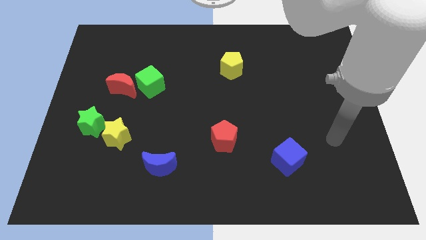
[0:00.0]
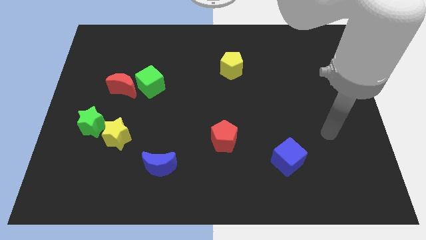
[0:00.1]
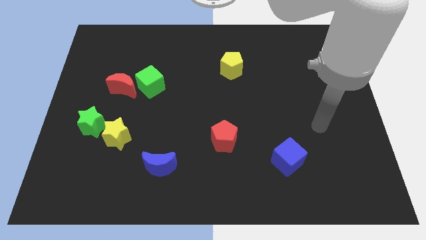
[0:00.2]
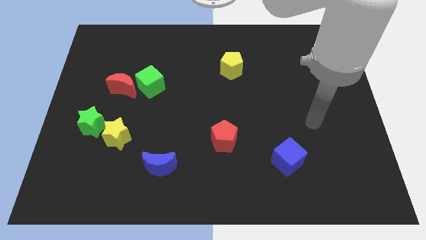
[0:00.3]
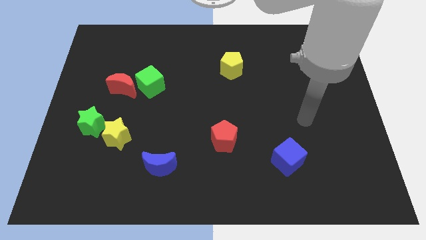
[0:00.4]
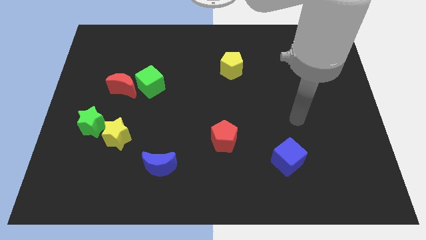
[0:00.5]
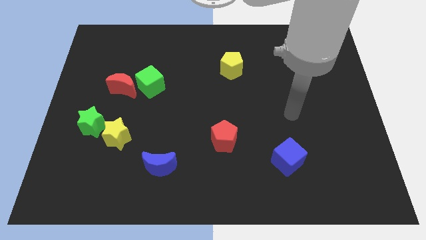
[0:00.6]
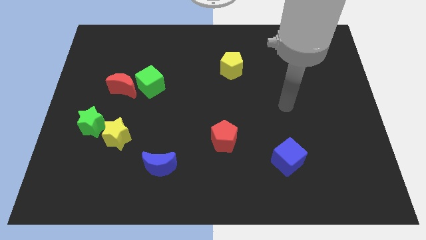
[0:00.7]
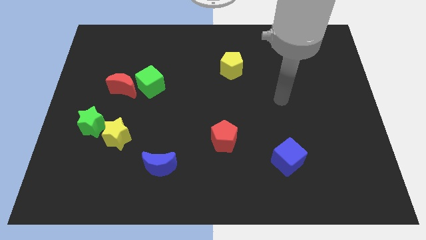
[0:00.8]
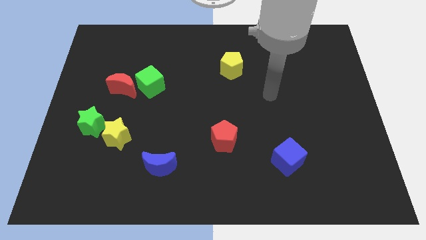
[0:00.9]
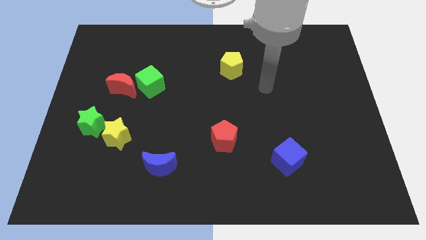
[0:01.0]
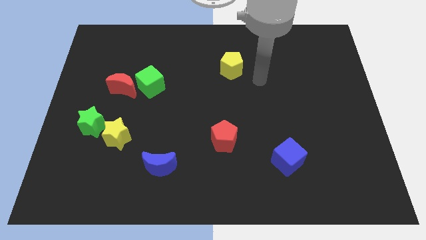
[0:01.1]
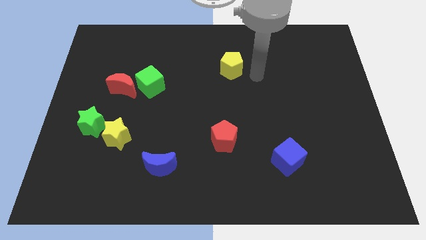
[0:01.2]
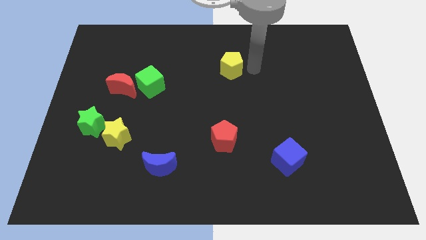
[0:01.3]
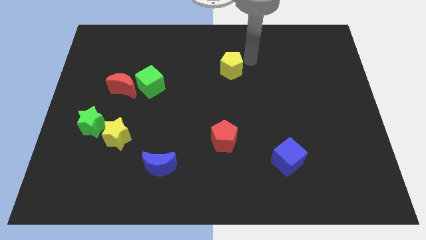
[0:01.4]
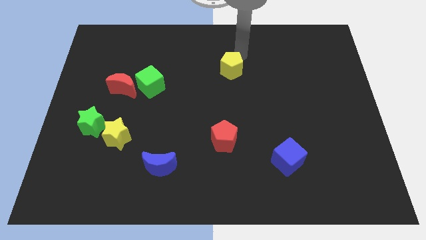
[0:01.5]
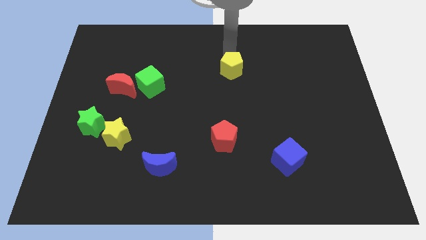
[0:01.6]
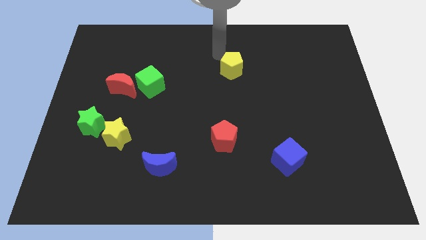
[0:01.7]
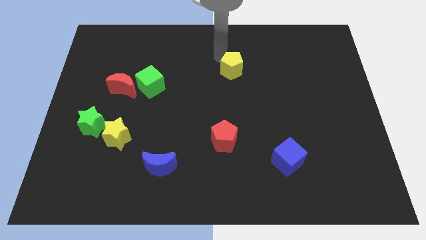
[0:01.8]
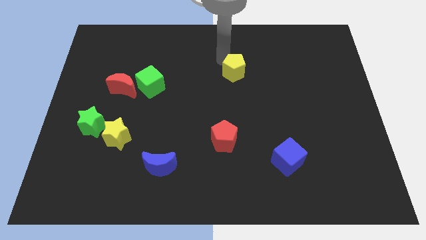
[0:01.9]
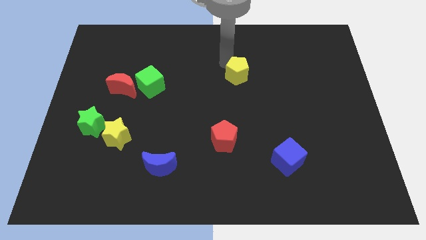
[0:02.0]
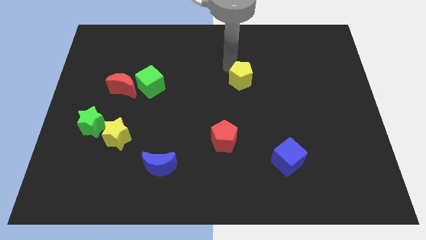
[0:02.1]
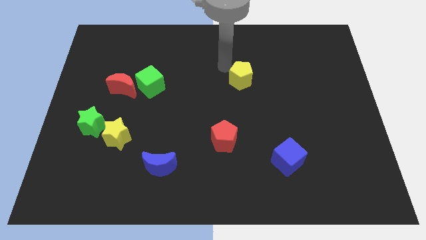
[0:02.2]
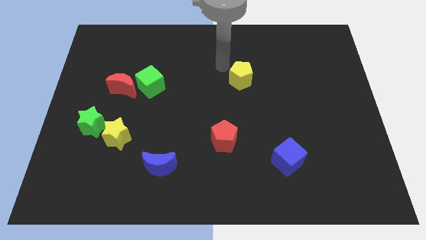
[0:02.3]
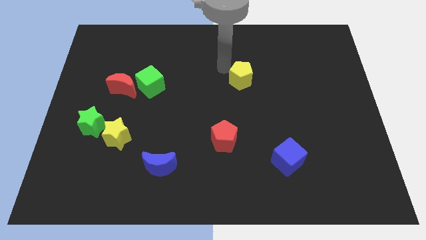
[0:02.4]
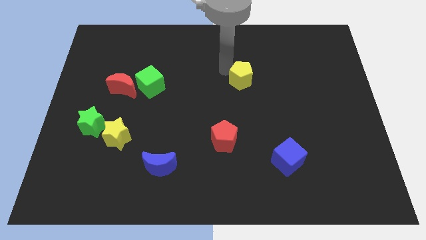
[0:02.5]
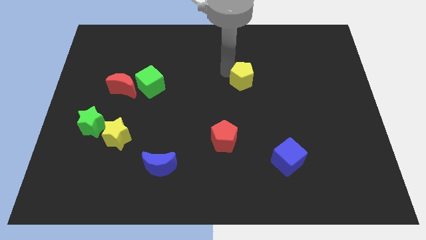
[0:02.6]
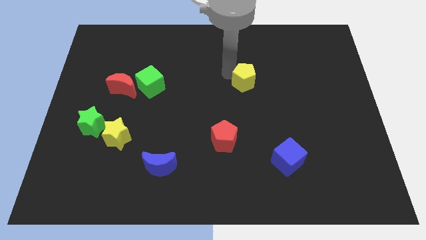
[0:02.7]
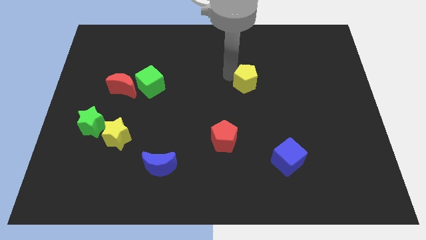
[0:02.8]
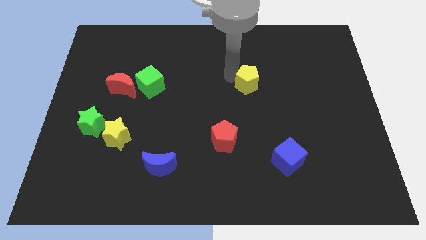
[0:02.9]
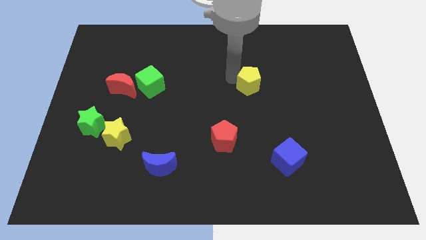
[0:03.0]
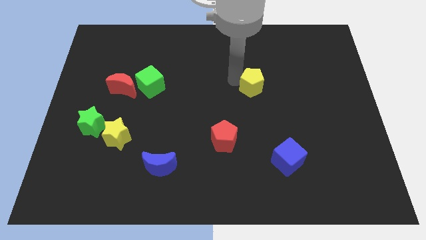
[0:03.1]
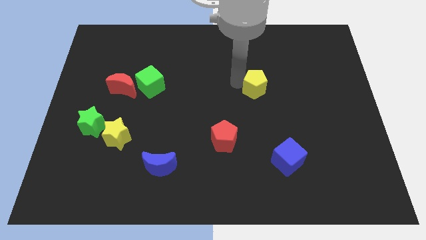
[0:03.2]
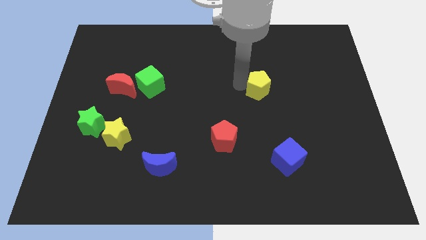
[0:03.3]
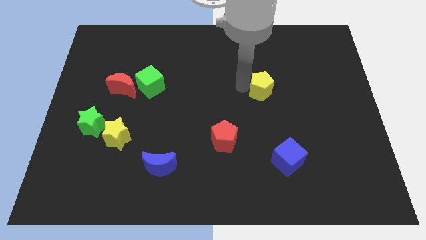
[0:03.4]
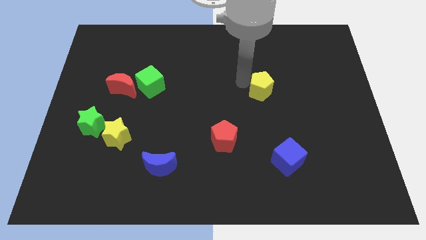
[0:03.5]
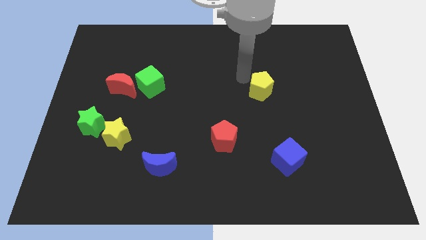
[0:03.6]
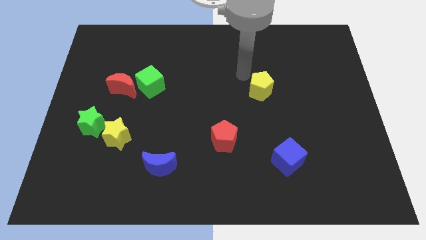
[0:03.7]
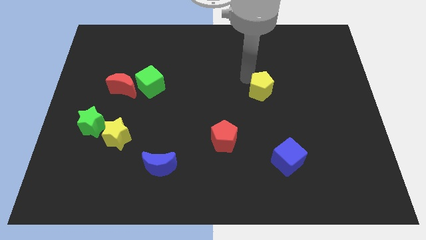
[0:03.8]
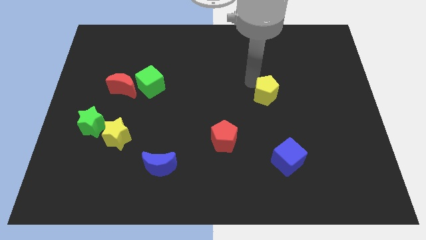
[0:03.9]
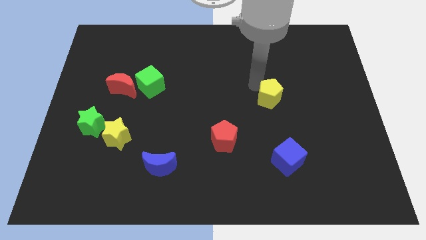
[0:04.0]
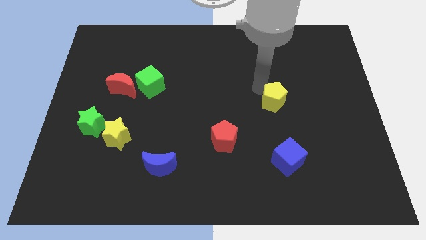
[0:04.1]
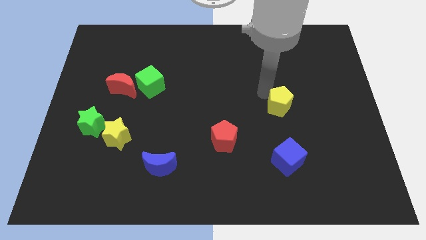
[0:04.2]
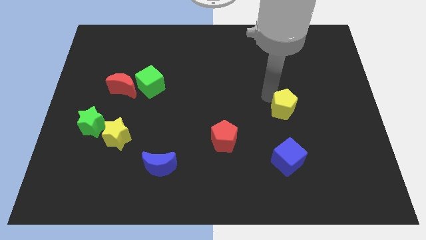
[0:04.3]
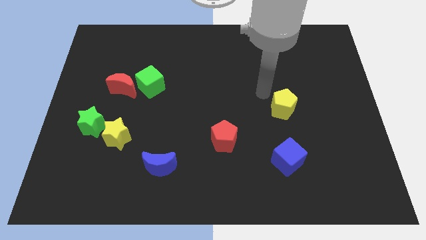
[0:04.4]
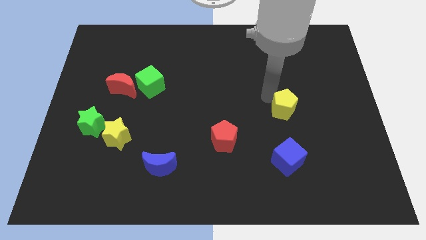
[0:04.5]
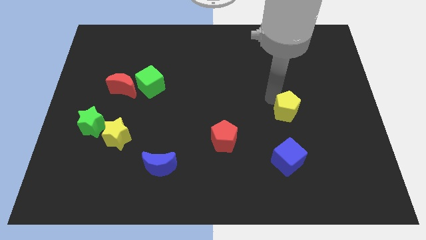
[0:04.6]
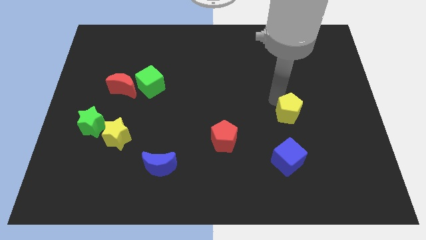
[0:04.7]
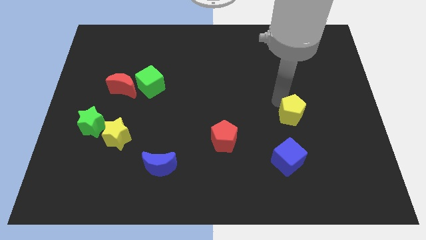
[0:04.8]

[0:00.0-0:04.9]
slide the yellow pentagon downwards and then to the right

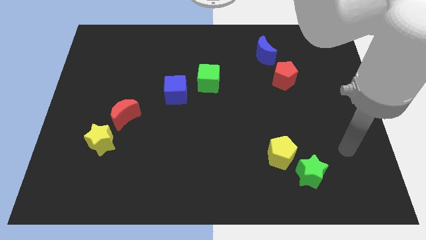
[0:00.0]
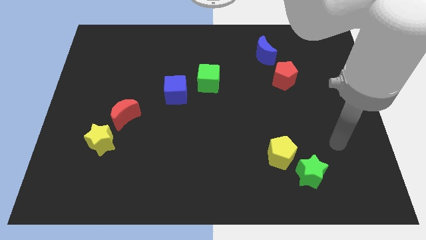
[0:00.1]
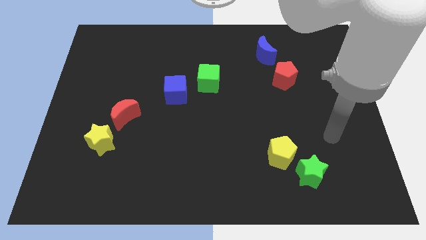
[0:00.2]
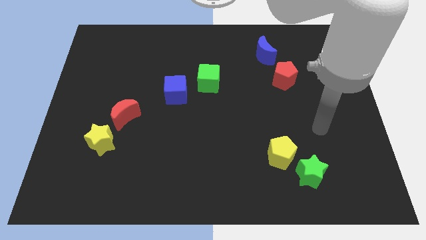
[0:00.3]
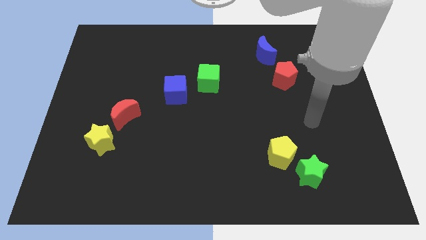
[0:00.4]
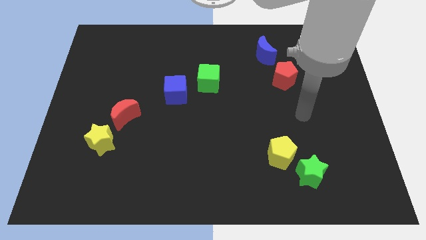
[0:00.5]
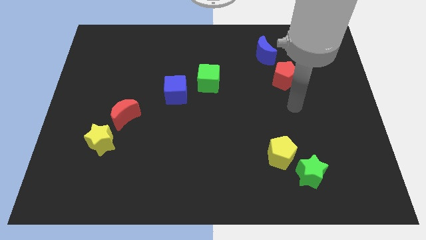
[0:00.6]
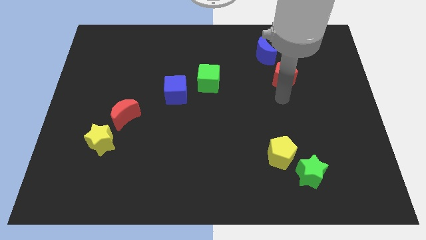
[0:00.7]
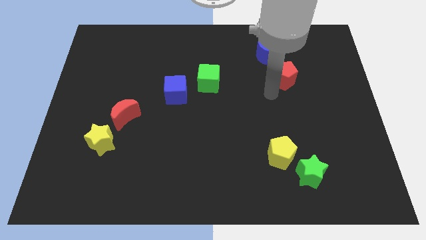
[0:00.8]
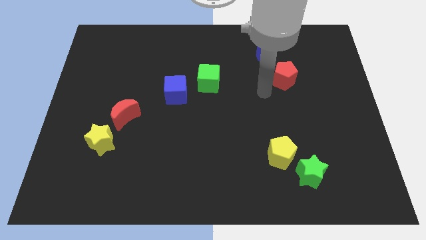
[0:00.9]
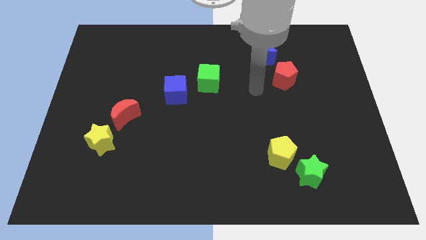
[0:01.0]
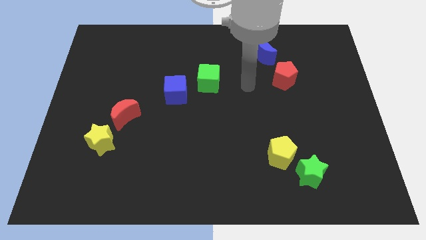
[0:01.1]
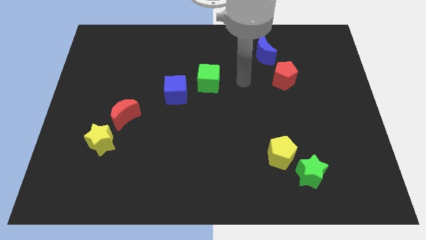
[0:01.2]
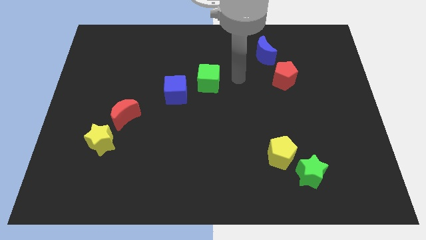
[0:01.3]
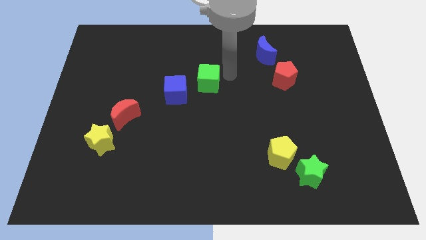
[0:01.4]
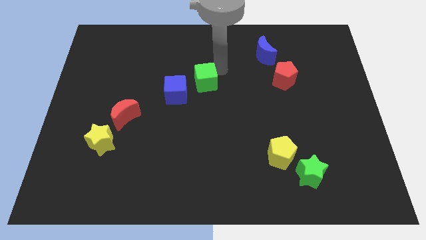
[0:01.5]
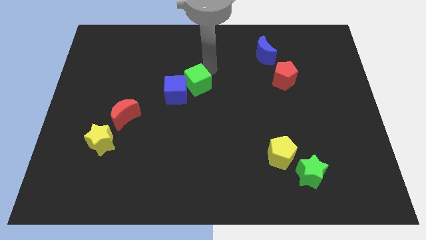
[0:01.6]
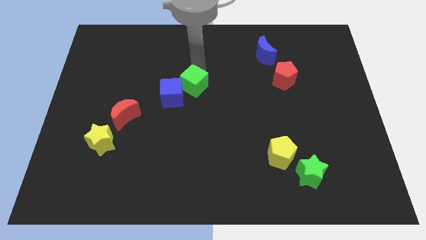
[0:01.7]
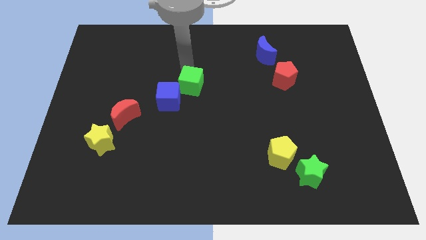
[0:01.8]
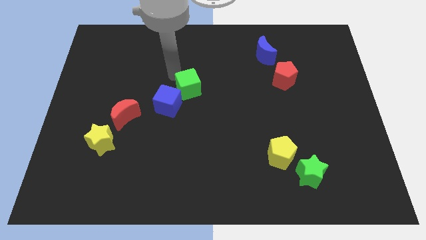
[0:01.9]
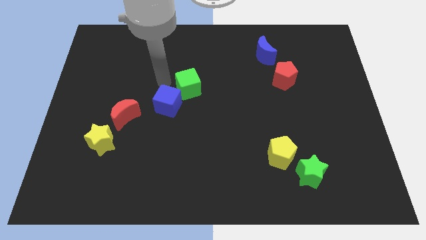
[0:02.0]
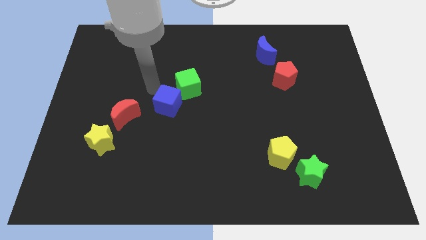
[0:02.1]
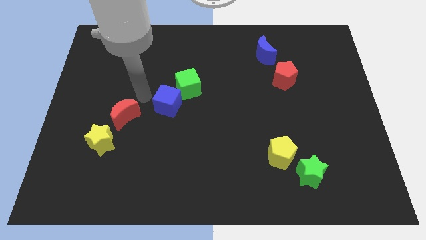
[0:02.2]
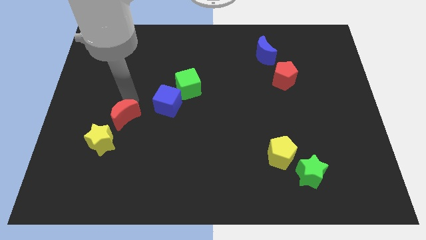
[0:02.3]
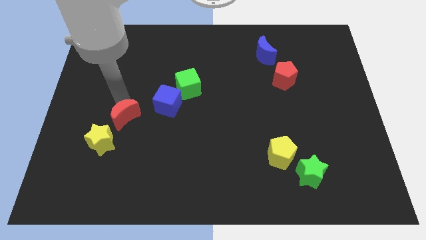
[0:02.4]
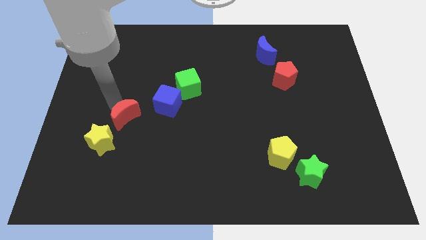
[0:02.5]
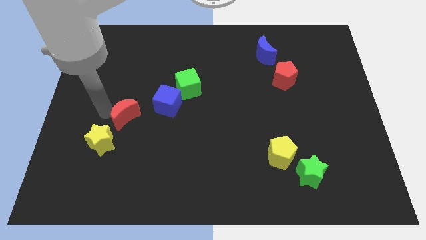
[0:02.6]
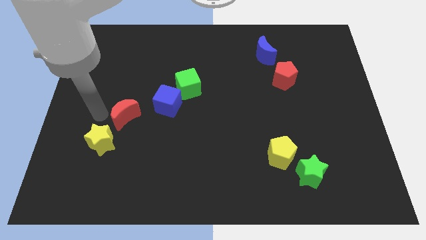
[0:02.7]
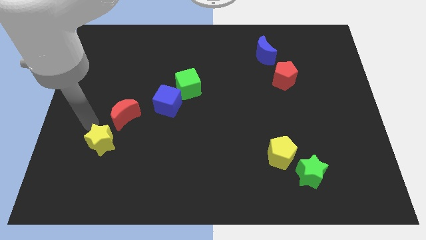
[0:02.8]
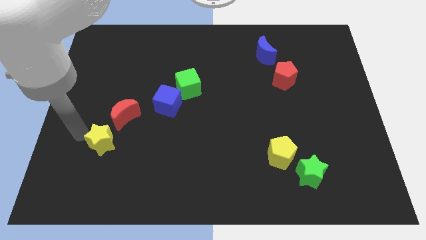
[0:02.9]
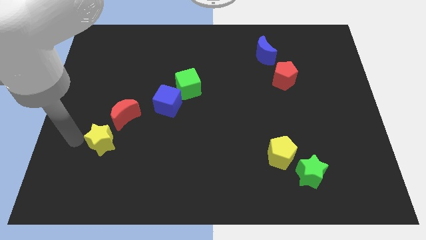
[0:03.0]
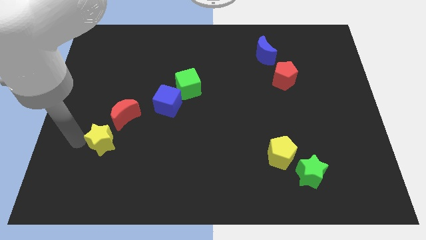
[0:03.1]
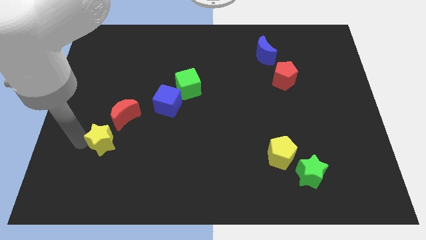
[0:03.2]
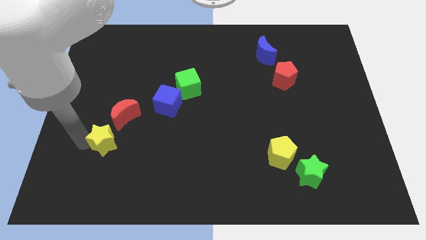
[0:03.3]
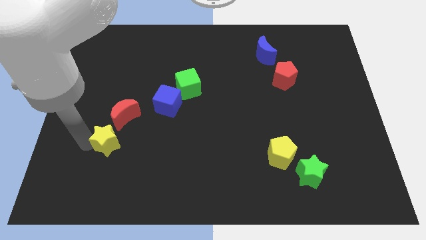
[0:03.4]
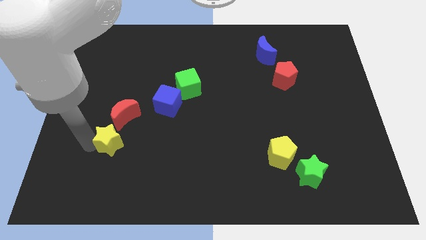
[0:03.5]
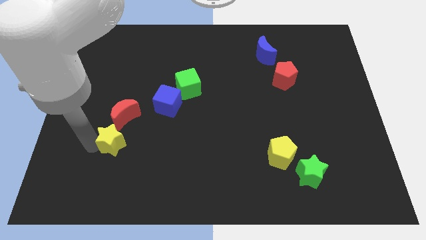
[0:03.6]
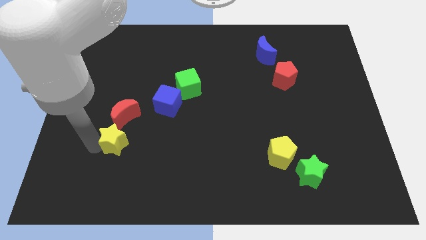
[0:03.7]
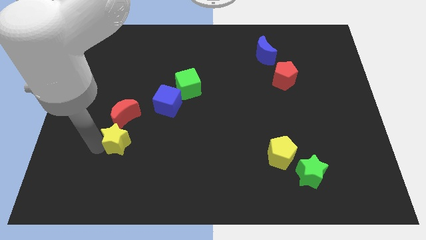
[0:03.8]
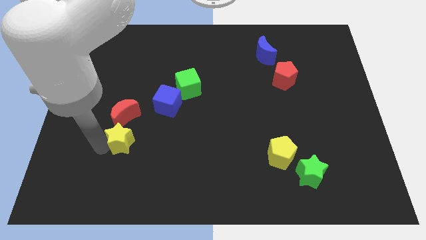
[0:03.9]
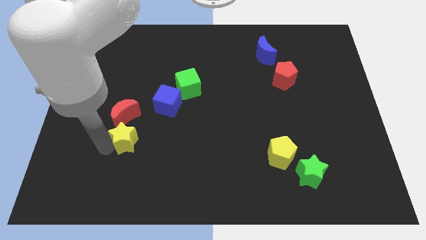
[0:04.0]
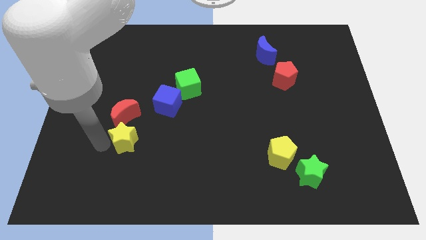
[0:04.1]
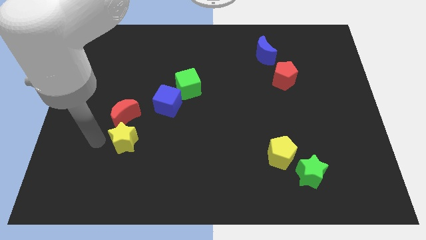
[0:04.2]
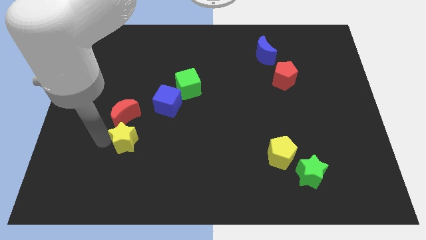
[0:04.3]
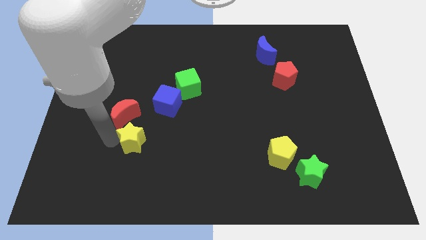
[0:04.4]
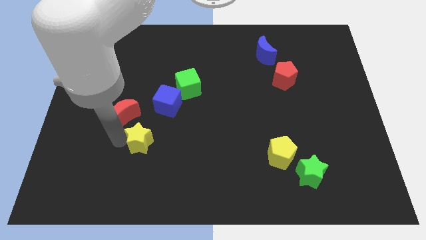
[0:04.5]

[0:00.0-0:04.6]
slightly slide the yellow star to the right
